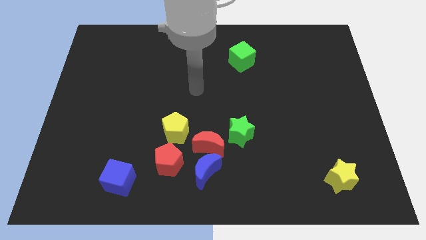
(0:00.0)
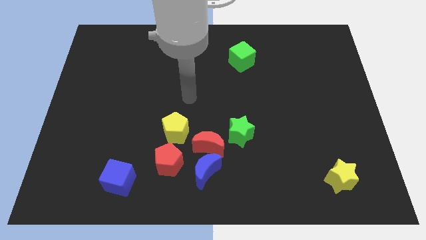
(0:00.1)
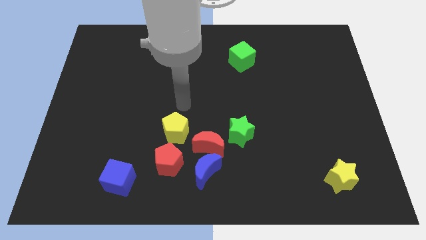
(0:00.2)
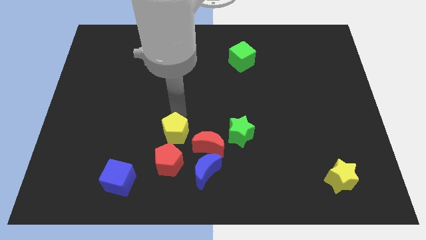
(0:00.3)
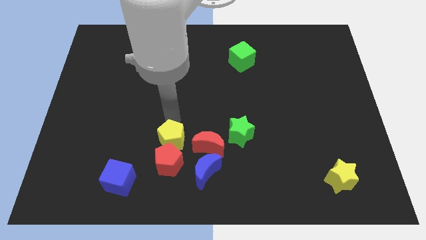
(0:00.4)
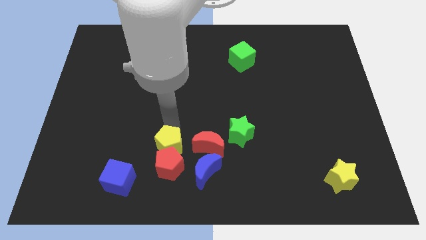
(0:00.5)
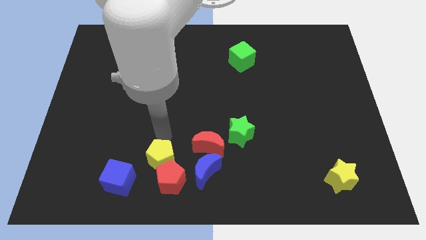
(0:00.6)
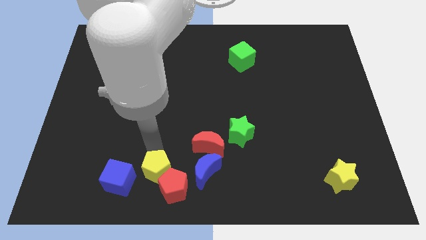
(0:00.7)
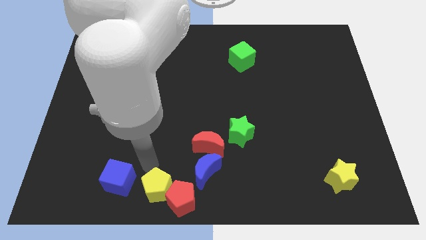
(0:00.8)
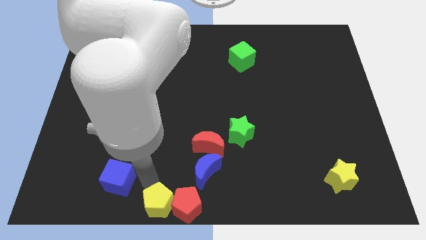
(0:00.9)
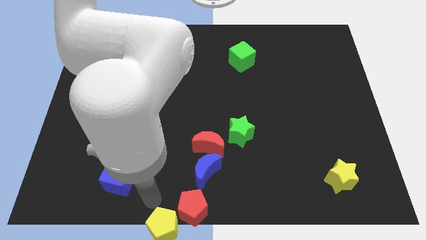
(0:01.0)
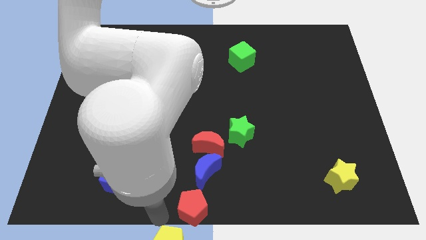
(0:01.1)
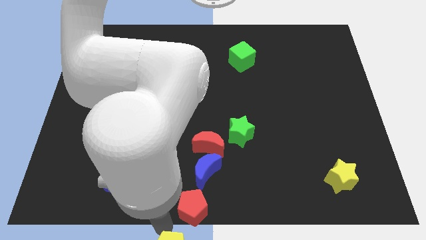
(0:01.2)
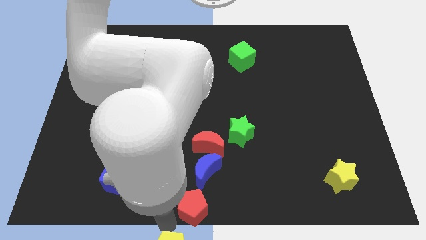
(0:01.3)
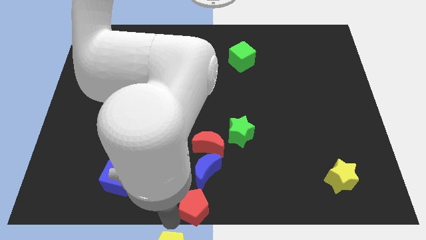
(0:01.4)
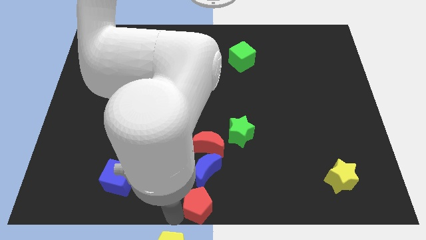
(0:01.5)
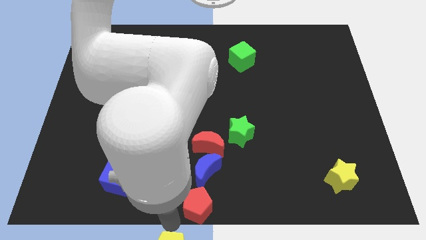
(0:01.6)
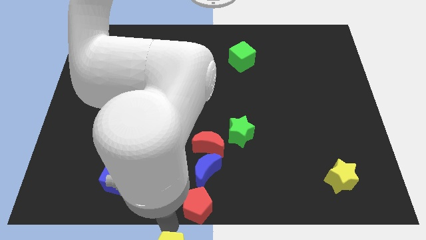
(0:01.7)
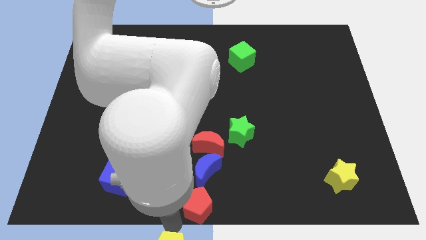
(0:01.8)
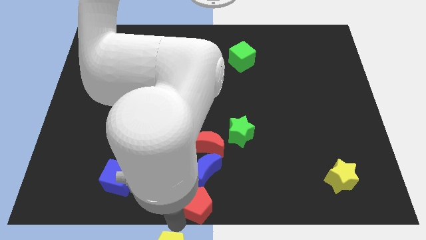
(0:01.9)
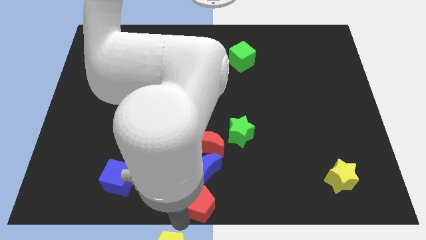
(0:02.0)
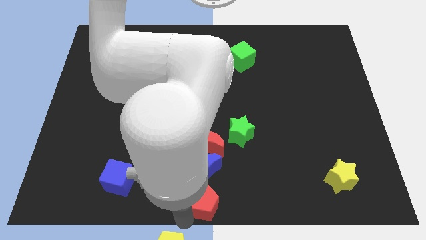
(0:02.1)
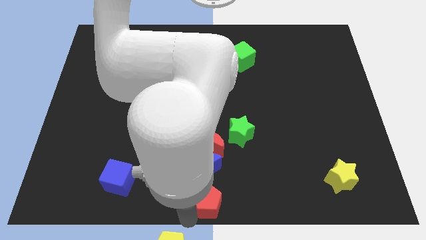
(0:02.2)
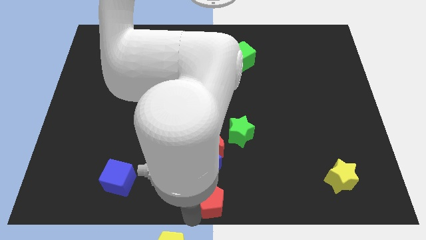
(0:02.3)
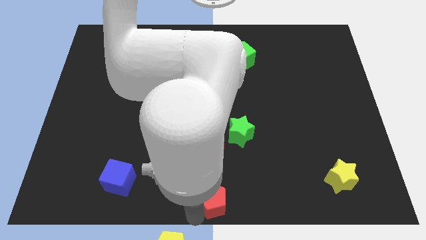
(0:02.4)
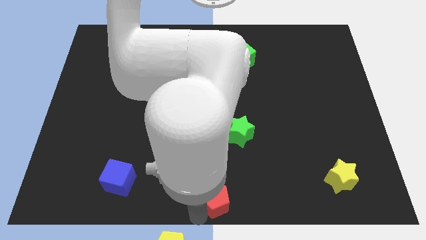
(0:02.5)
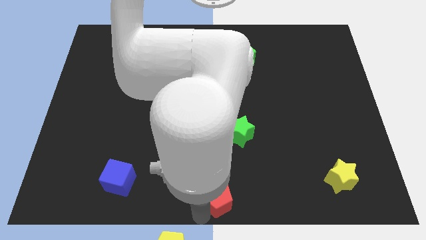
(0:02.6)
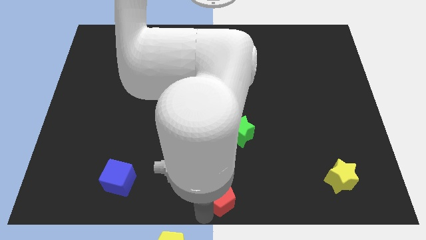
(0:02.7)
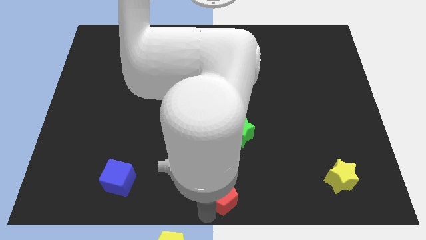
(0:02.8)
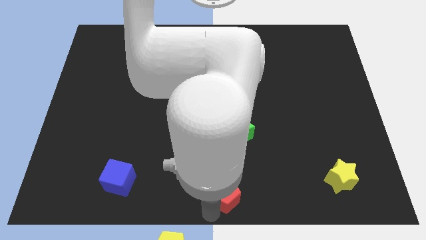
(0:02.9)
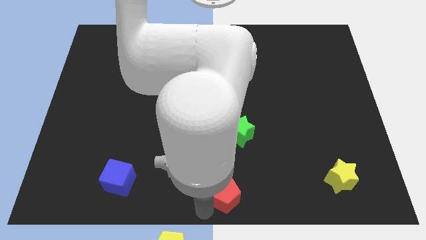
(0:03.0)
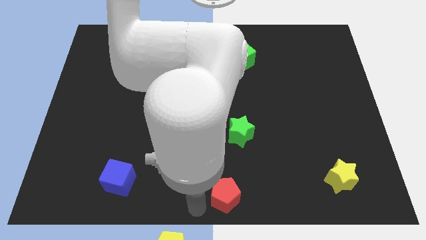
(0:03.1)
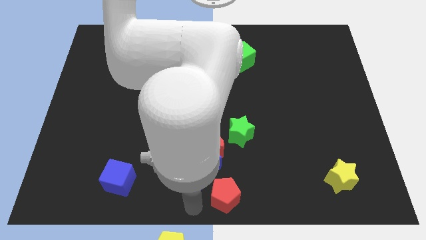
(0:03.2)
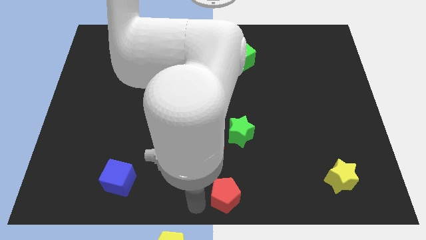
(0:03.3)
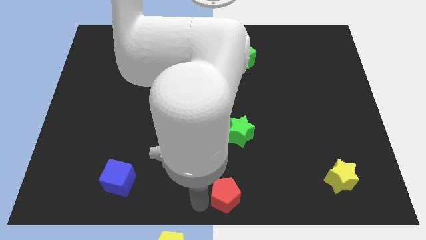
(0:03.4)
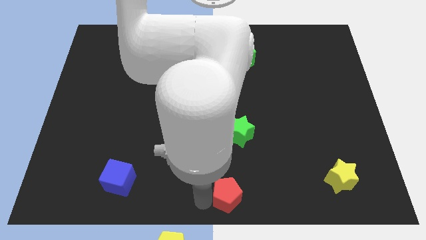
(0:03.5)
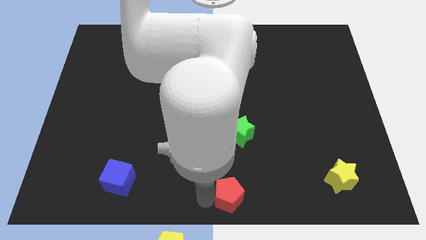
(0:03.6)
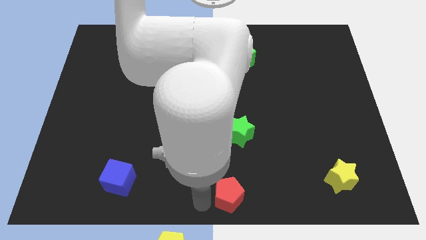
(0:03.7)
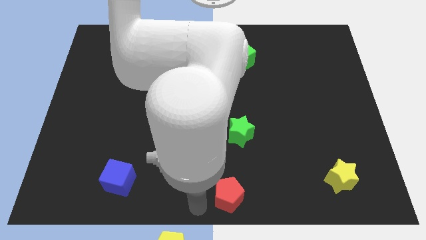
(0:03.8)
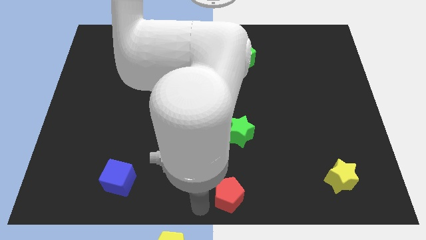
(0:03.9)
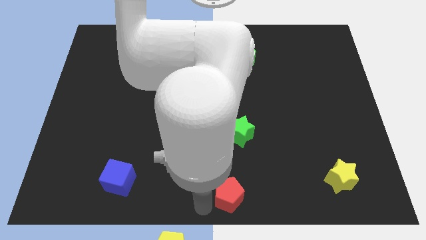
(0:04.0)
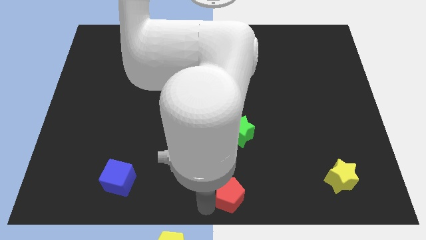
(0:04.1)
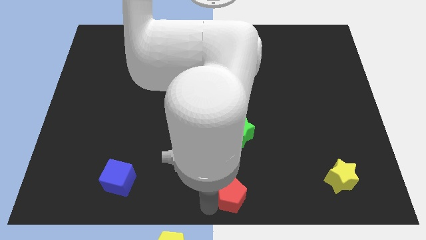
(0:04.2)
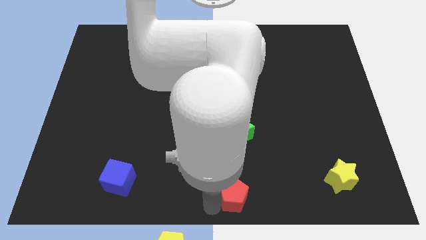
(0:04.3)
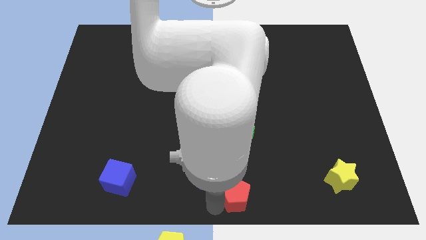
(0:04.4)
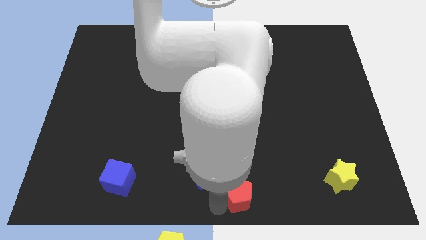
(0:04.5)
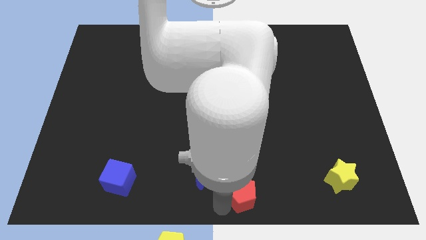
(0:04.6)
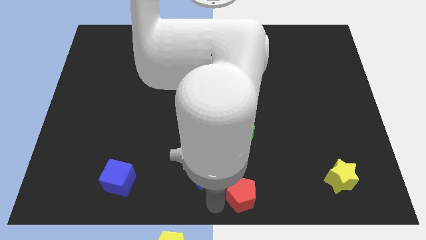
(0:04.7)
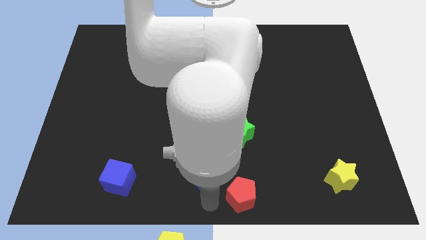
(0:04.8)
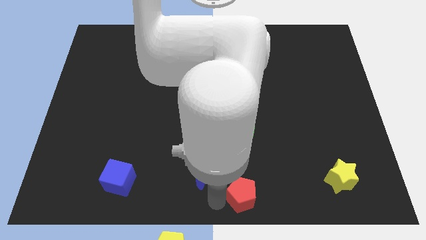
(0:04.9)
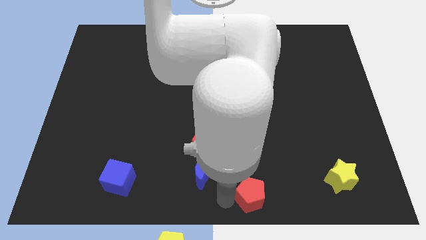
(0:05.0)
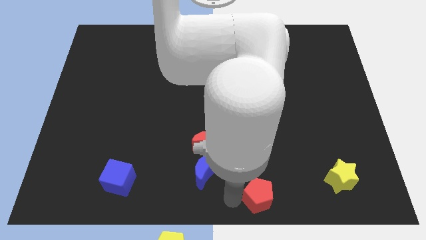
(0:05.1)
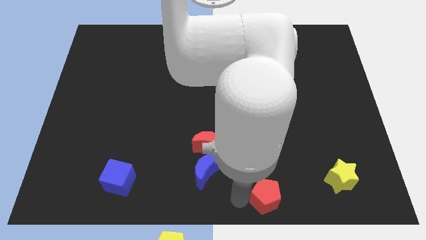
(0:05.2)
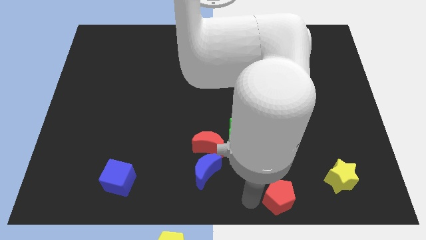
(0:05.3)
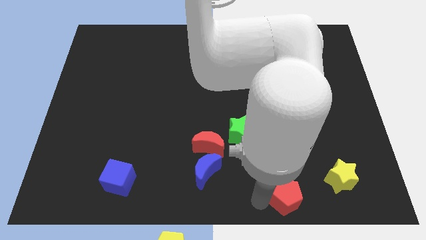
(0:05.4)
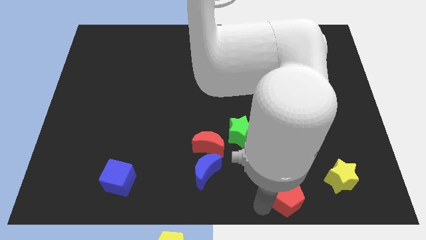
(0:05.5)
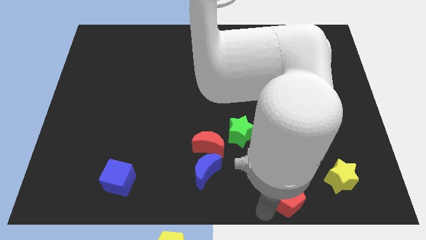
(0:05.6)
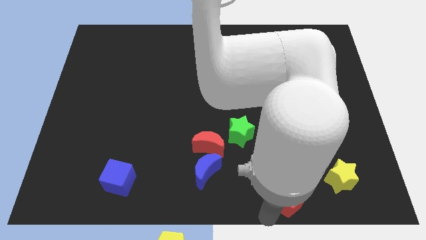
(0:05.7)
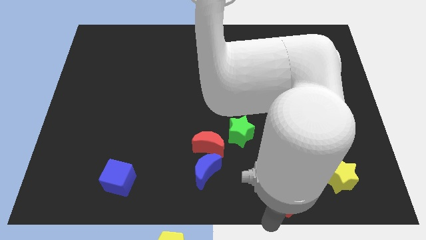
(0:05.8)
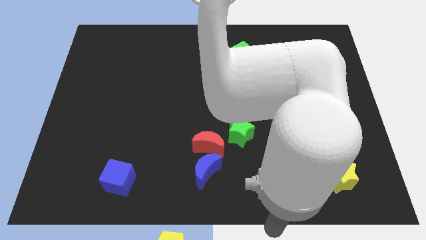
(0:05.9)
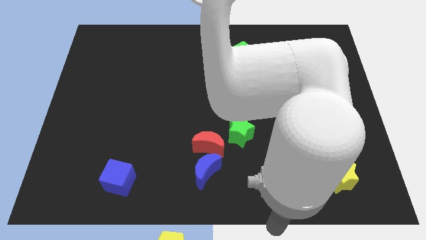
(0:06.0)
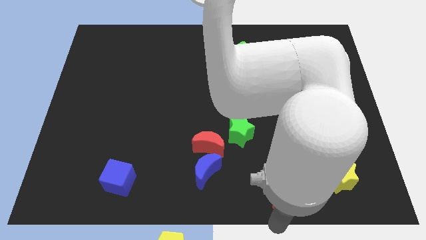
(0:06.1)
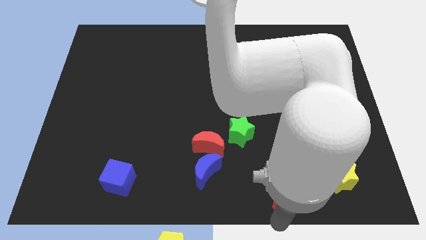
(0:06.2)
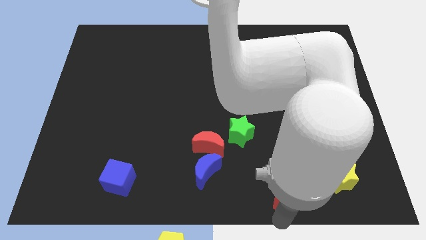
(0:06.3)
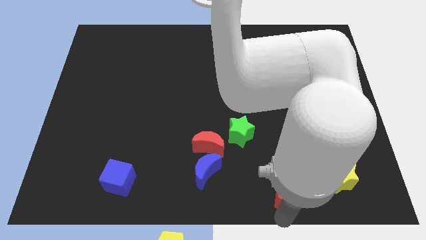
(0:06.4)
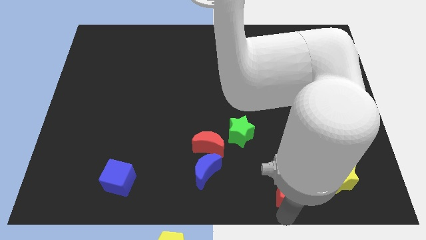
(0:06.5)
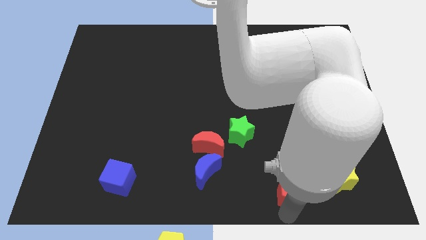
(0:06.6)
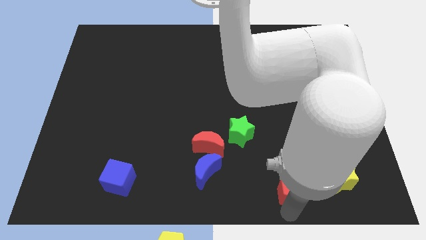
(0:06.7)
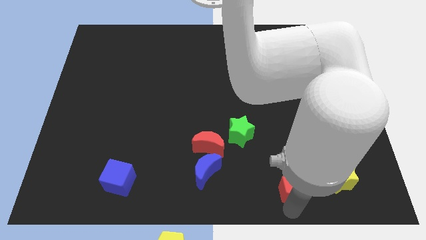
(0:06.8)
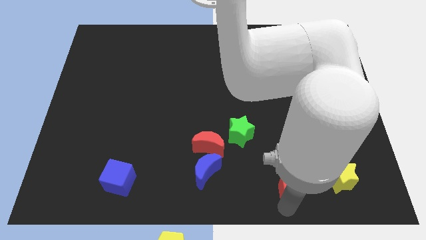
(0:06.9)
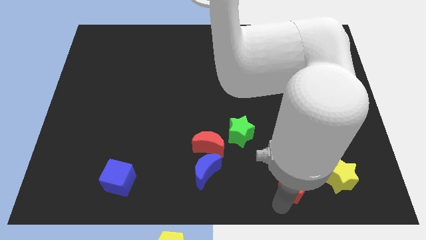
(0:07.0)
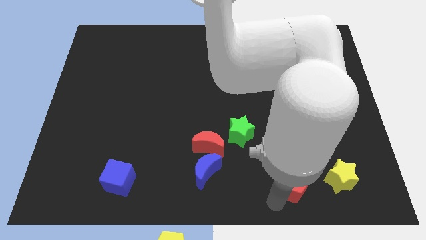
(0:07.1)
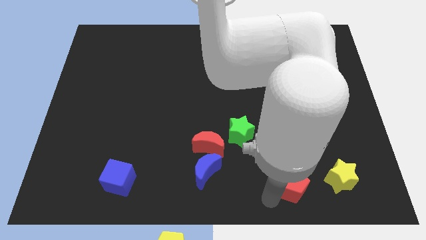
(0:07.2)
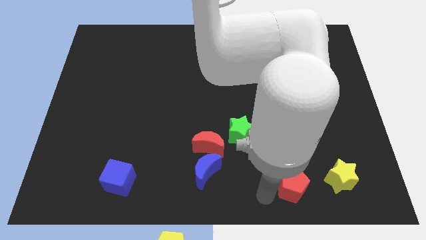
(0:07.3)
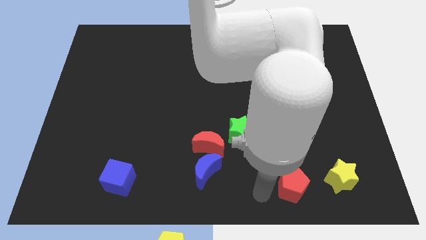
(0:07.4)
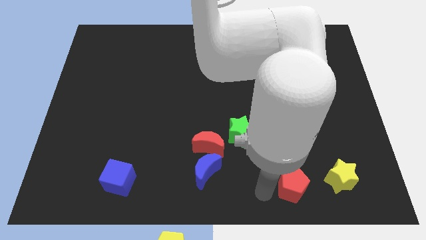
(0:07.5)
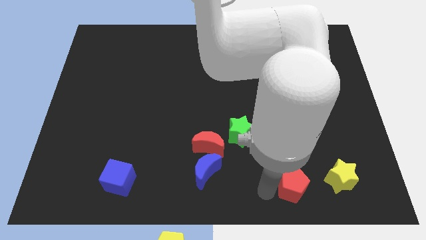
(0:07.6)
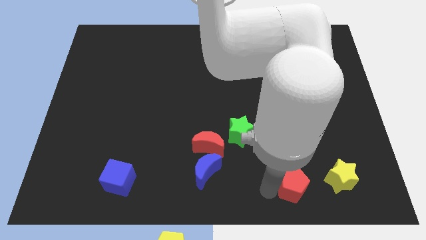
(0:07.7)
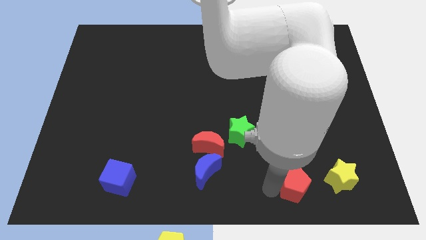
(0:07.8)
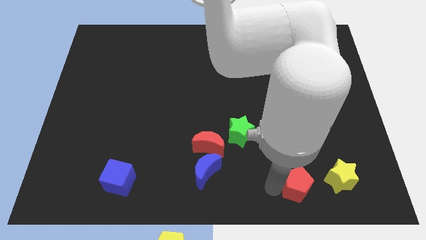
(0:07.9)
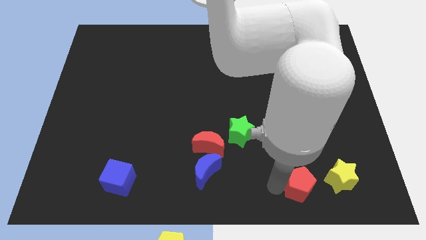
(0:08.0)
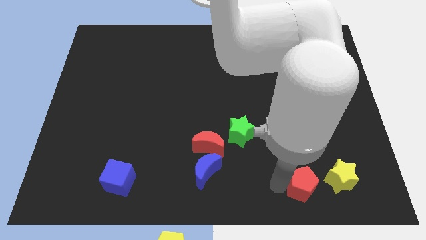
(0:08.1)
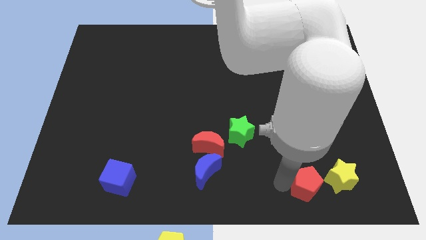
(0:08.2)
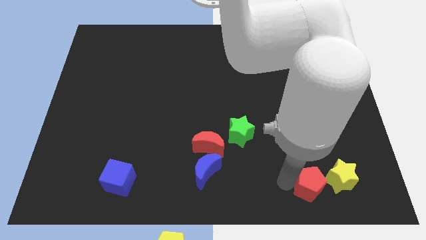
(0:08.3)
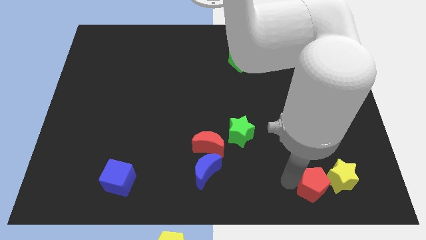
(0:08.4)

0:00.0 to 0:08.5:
push the red pentagon next to the yellow star
